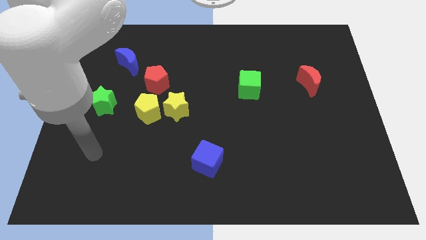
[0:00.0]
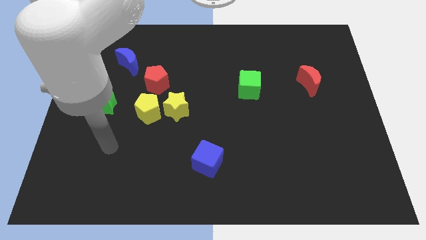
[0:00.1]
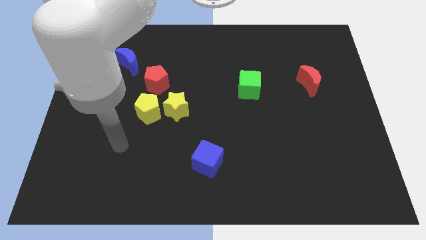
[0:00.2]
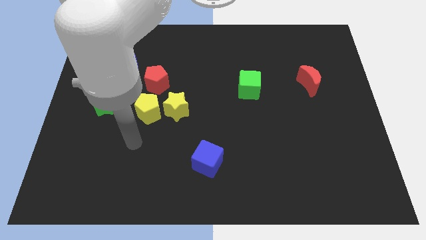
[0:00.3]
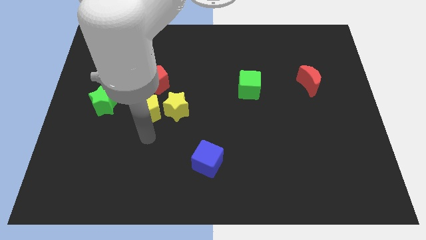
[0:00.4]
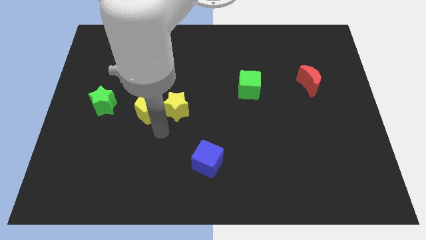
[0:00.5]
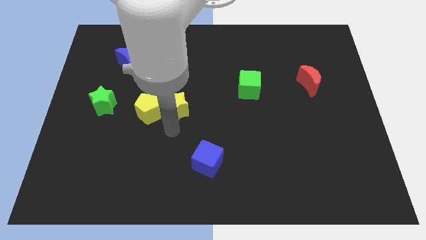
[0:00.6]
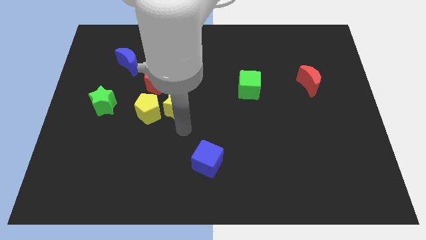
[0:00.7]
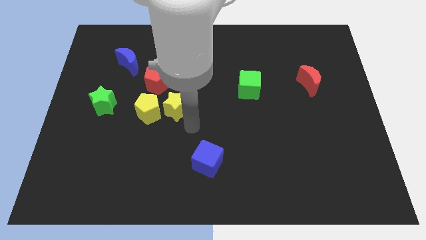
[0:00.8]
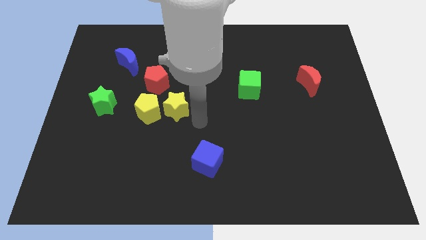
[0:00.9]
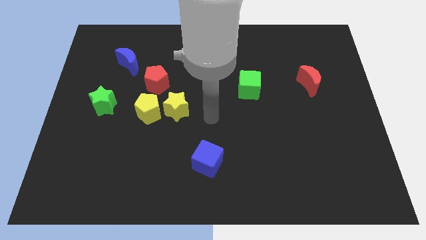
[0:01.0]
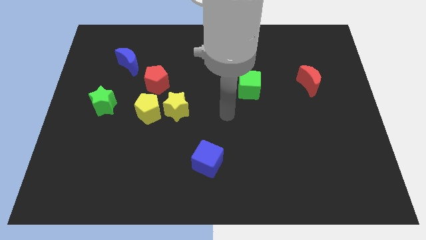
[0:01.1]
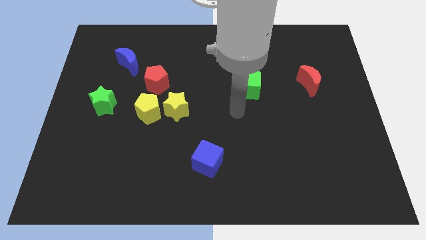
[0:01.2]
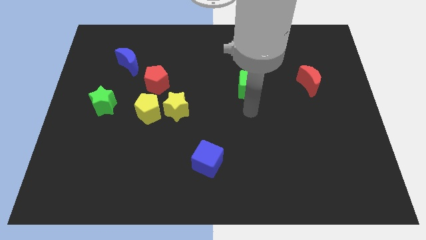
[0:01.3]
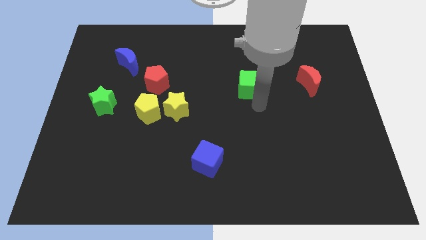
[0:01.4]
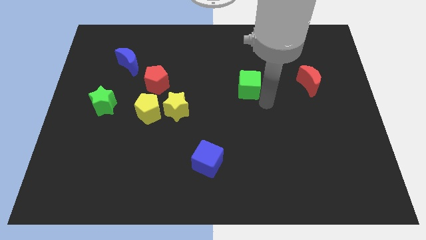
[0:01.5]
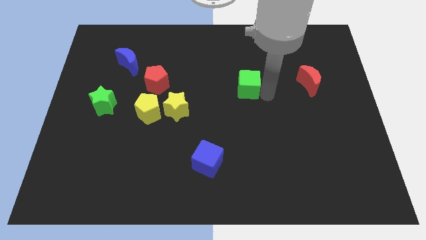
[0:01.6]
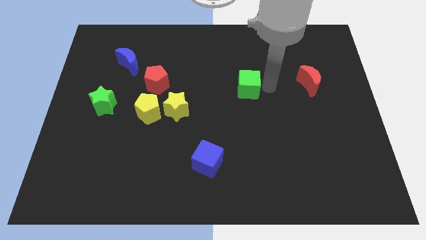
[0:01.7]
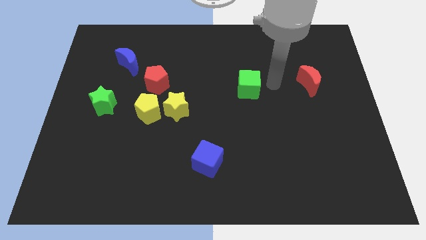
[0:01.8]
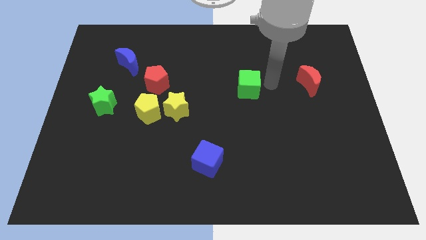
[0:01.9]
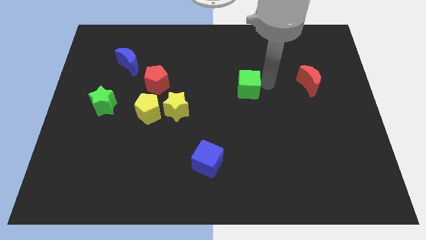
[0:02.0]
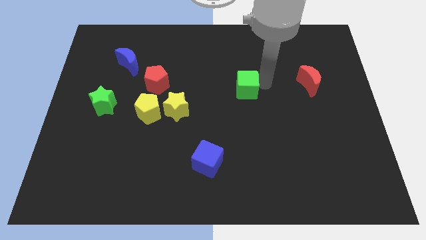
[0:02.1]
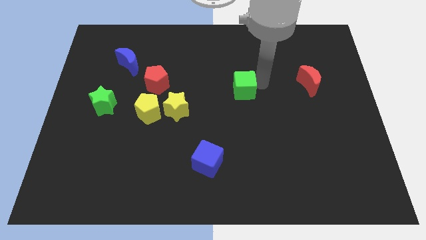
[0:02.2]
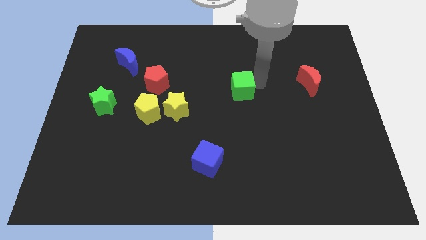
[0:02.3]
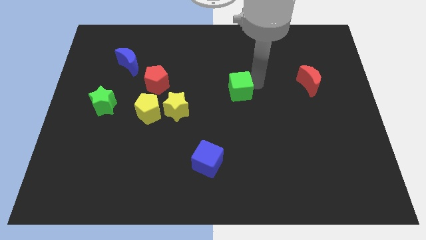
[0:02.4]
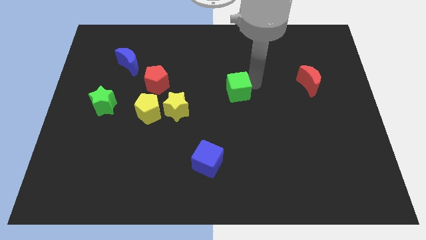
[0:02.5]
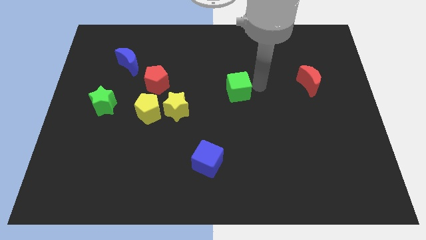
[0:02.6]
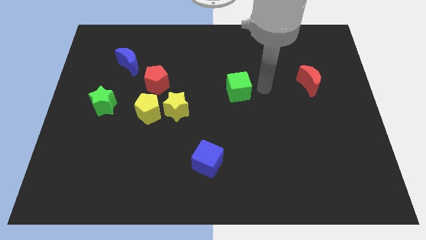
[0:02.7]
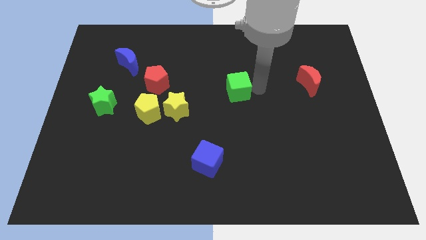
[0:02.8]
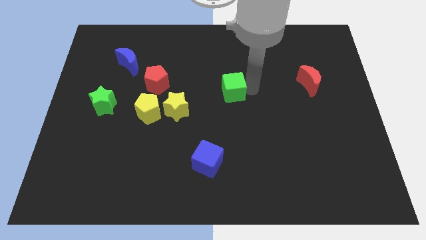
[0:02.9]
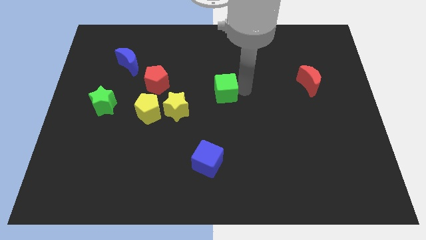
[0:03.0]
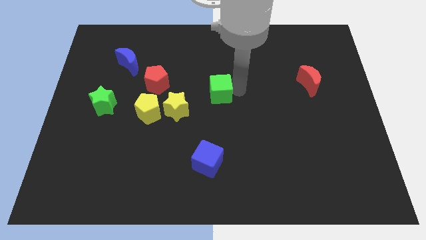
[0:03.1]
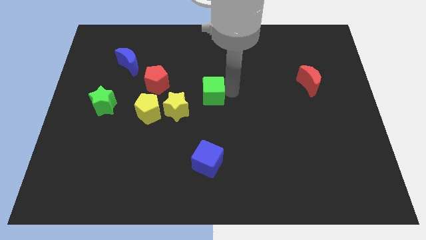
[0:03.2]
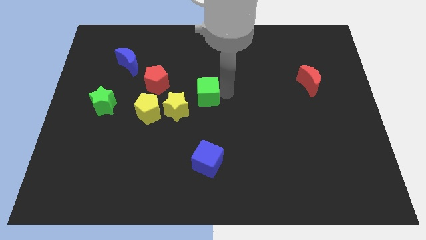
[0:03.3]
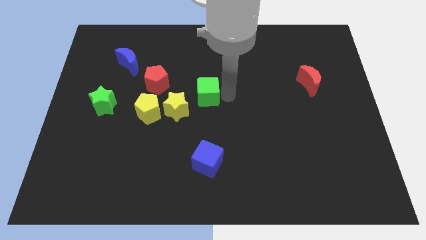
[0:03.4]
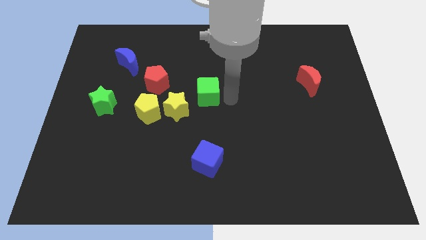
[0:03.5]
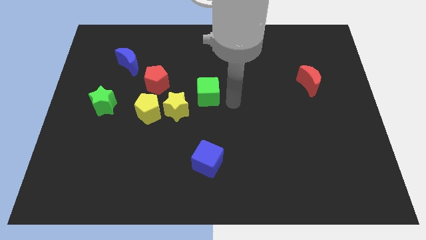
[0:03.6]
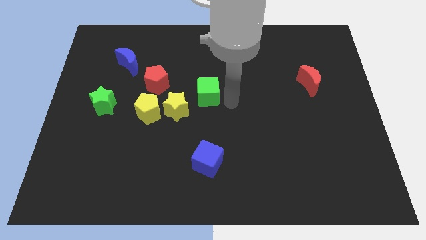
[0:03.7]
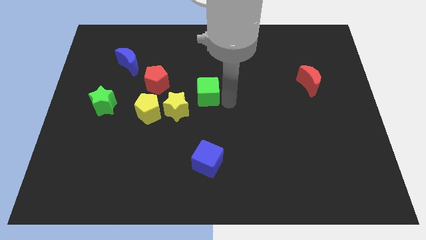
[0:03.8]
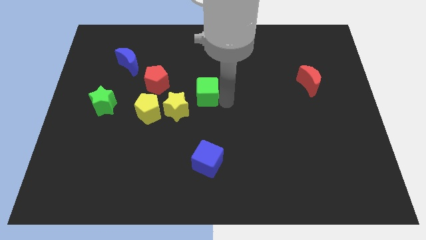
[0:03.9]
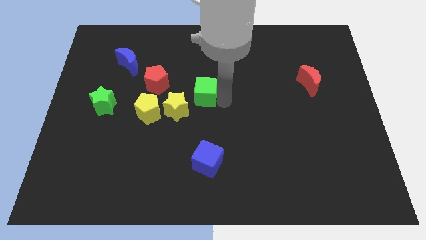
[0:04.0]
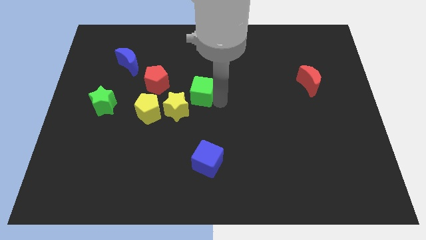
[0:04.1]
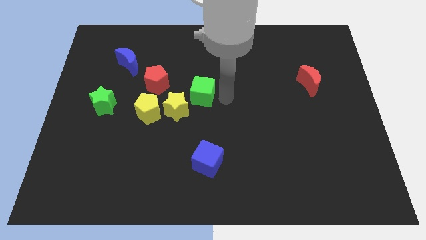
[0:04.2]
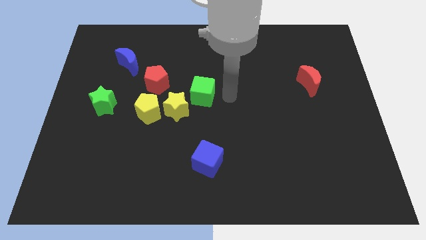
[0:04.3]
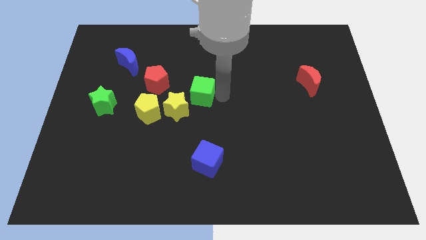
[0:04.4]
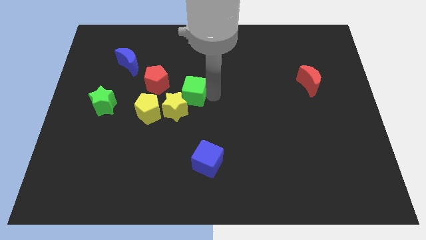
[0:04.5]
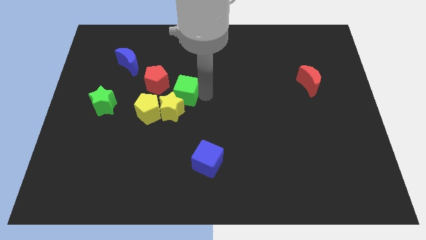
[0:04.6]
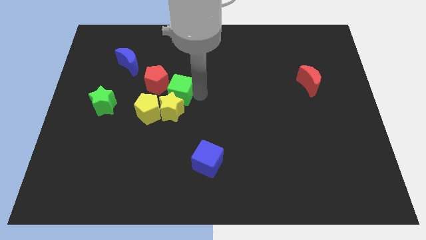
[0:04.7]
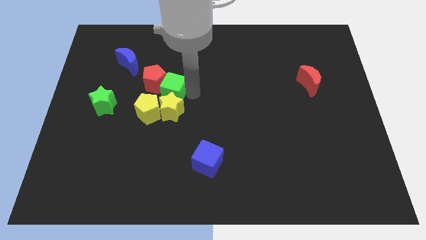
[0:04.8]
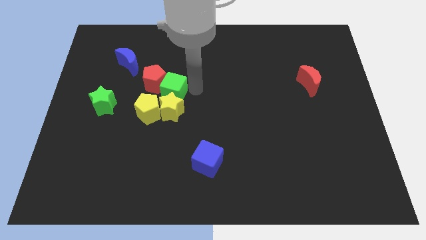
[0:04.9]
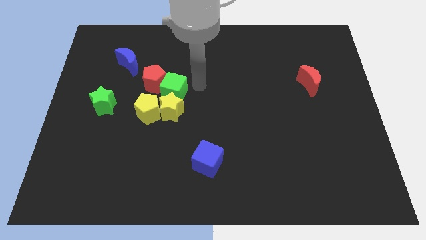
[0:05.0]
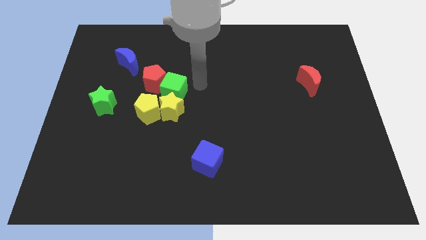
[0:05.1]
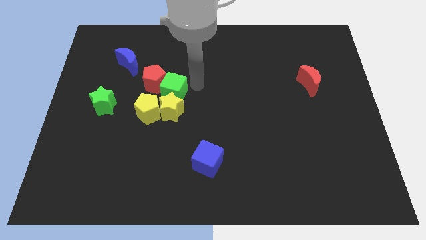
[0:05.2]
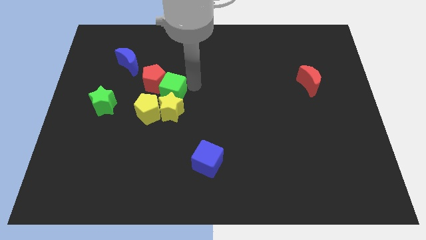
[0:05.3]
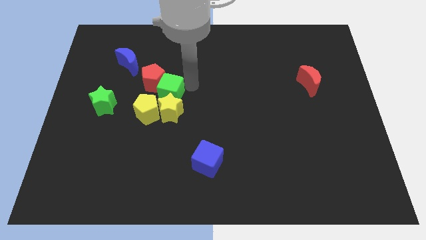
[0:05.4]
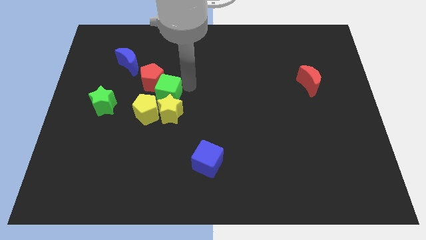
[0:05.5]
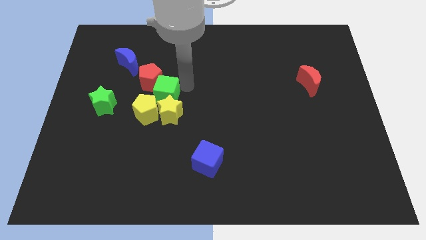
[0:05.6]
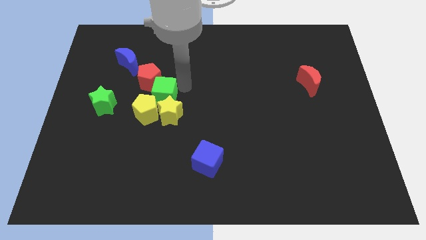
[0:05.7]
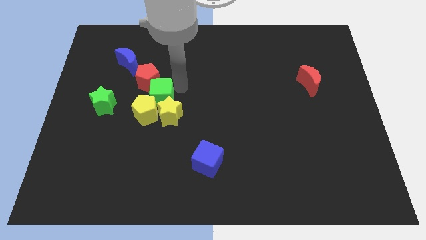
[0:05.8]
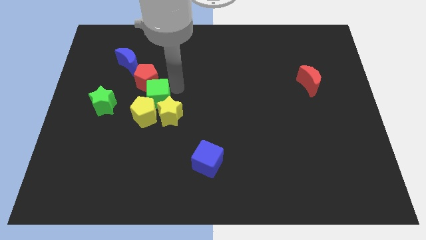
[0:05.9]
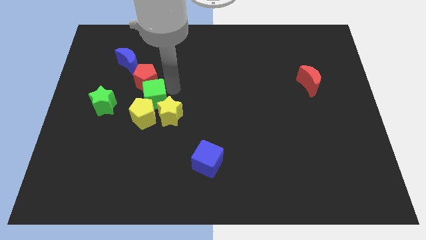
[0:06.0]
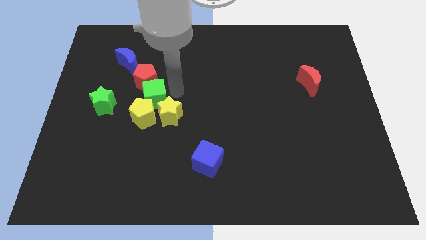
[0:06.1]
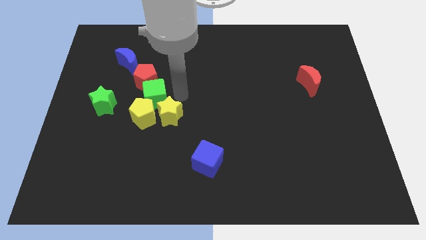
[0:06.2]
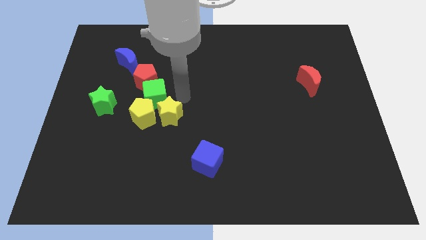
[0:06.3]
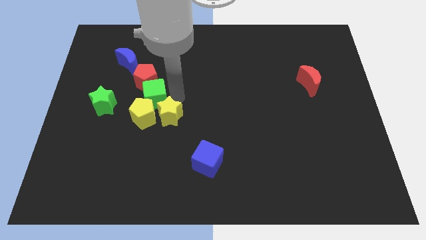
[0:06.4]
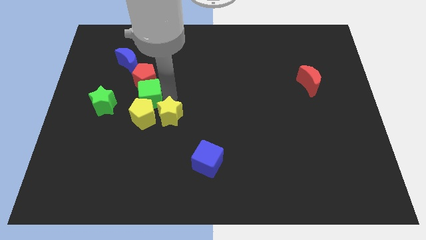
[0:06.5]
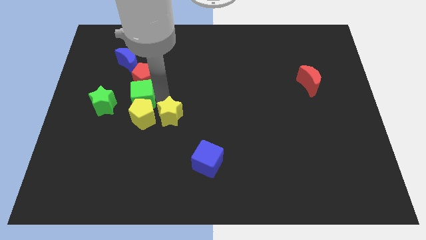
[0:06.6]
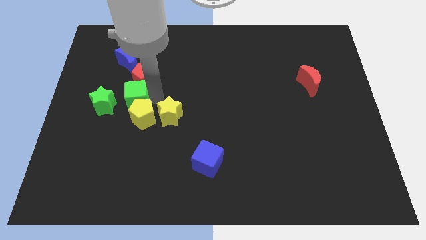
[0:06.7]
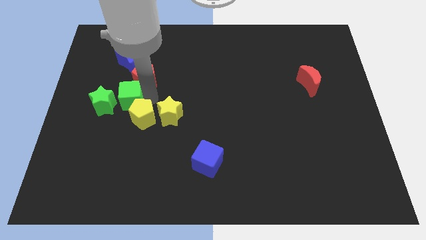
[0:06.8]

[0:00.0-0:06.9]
push the green cube to the green star
